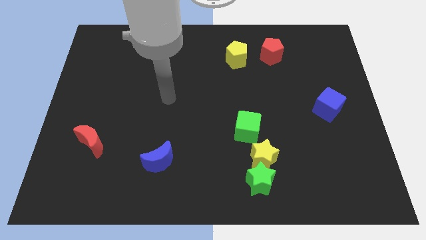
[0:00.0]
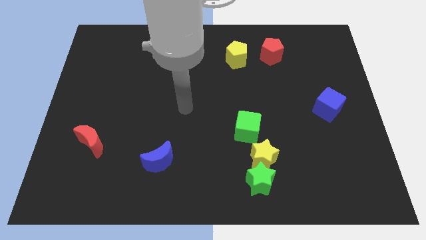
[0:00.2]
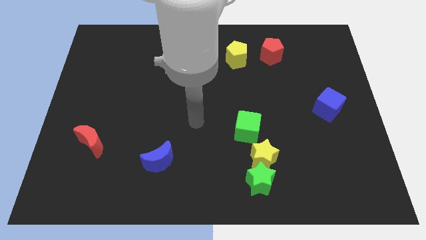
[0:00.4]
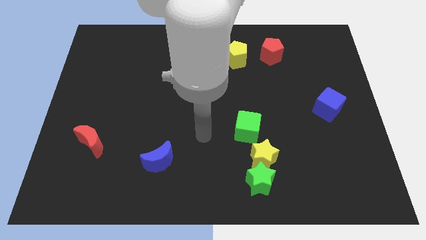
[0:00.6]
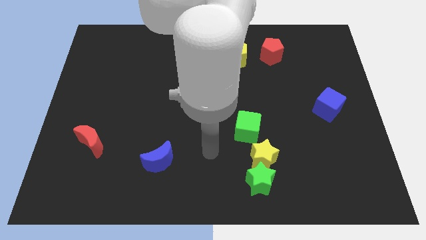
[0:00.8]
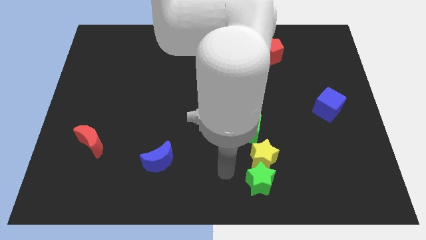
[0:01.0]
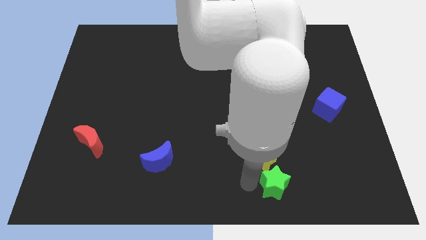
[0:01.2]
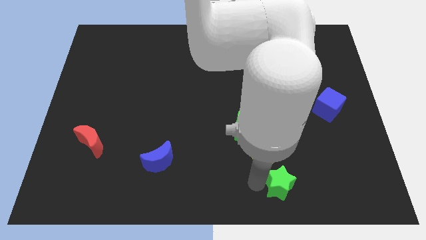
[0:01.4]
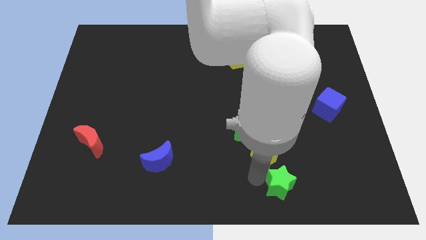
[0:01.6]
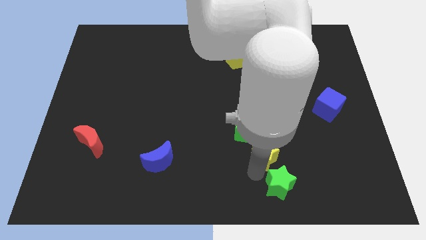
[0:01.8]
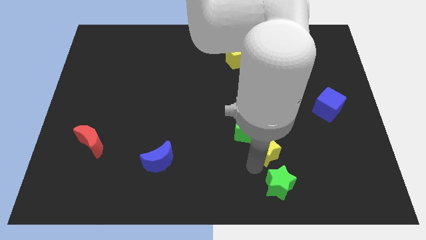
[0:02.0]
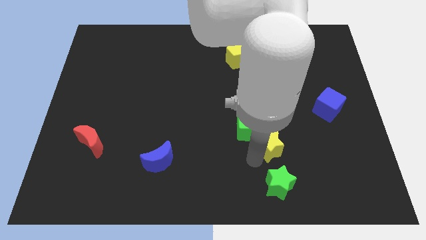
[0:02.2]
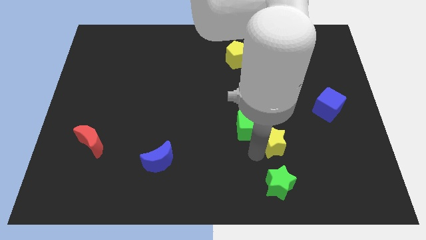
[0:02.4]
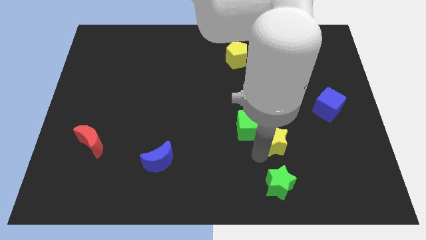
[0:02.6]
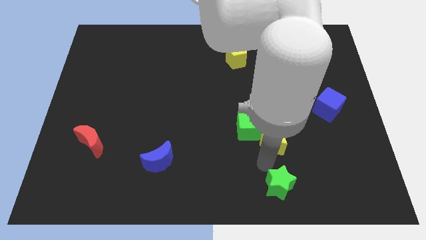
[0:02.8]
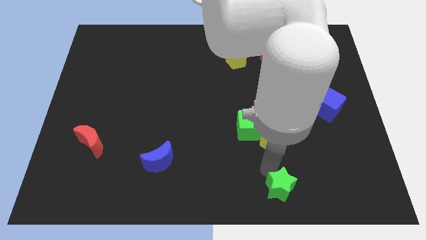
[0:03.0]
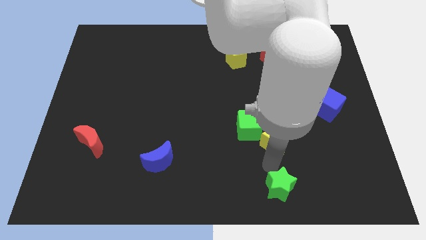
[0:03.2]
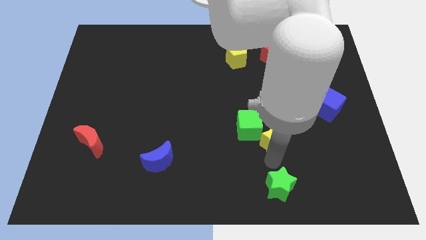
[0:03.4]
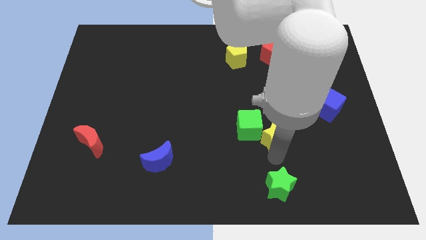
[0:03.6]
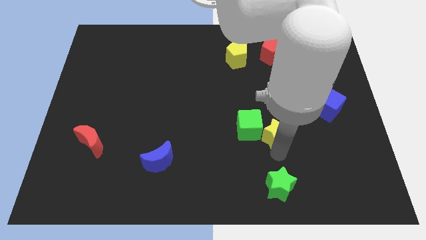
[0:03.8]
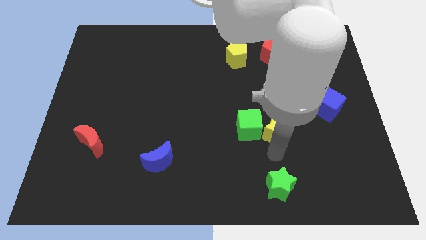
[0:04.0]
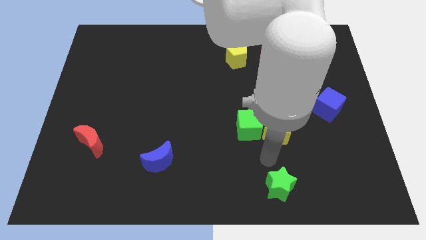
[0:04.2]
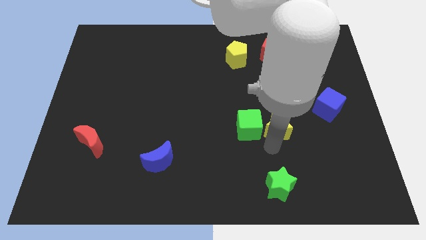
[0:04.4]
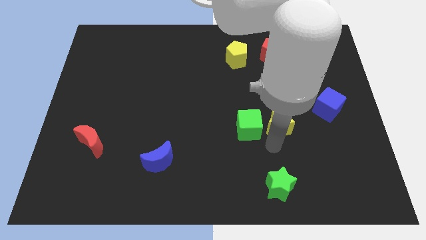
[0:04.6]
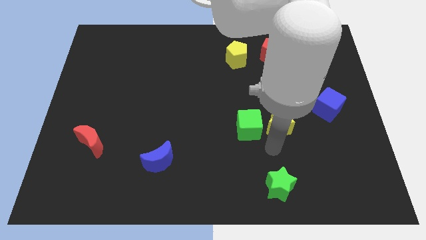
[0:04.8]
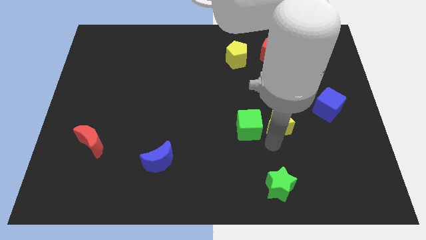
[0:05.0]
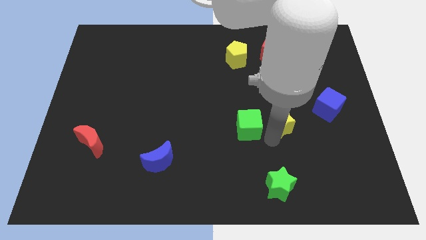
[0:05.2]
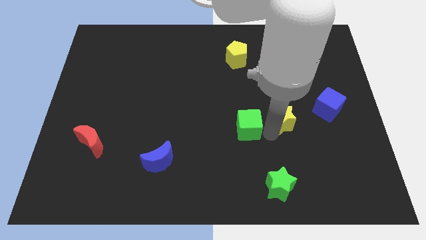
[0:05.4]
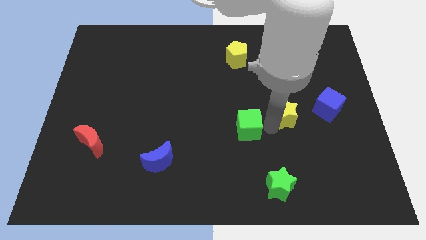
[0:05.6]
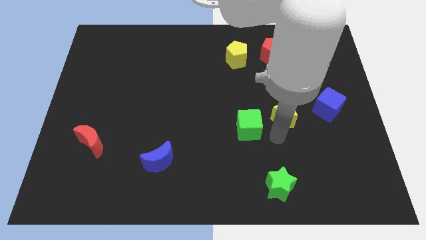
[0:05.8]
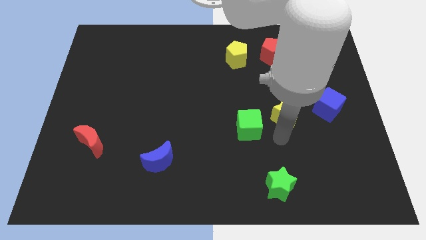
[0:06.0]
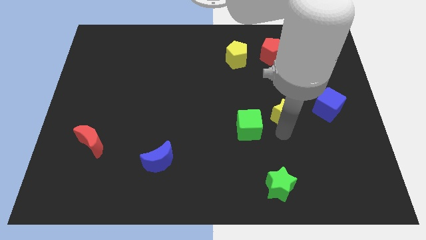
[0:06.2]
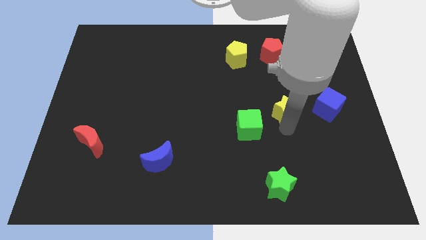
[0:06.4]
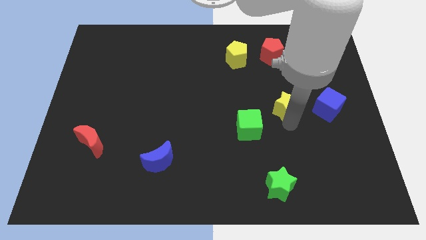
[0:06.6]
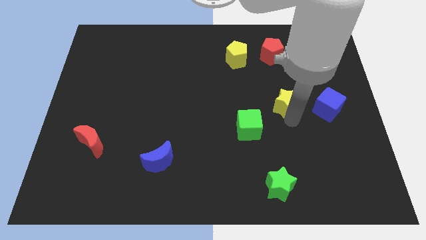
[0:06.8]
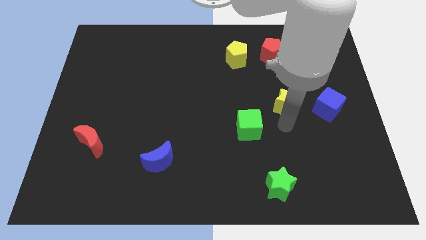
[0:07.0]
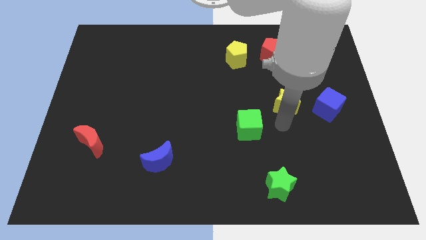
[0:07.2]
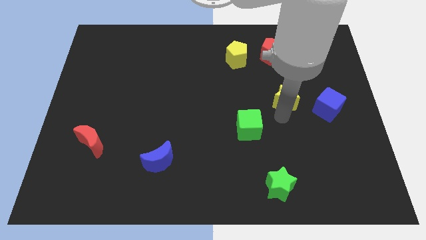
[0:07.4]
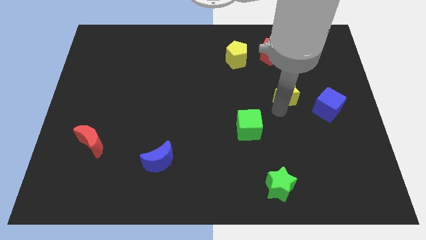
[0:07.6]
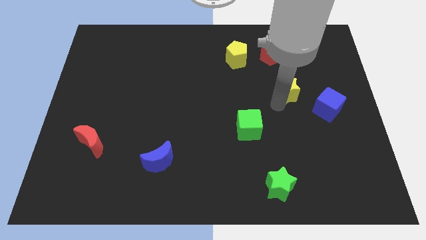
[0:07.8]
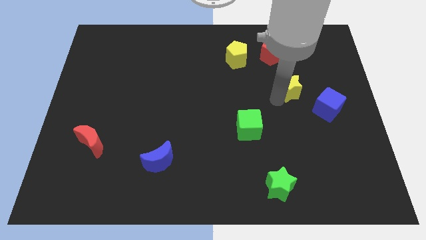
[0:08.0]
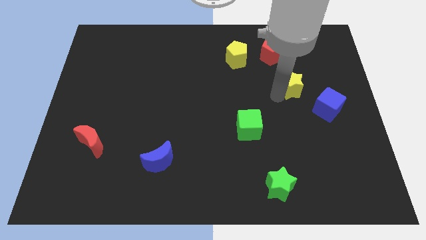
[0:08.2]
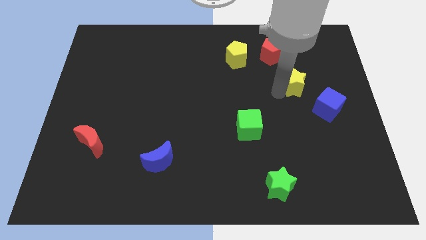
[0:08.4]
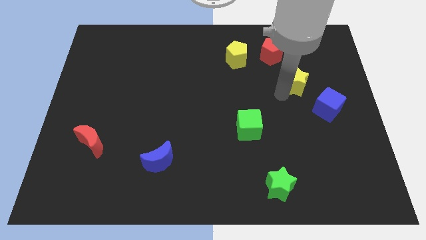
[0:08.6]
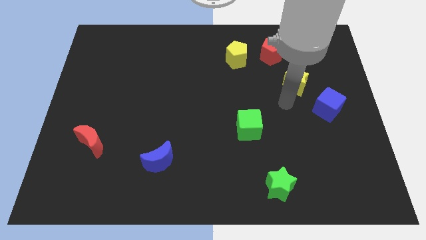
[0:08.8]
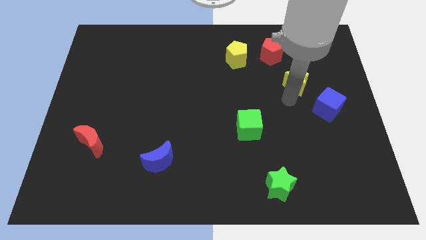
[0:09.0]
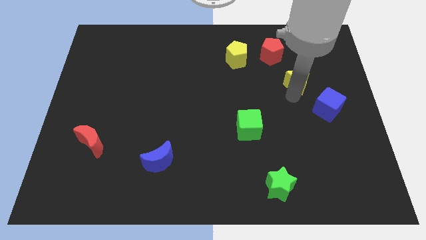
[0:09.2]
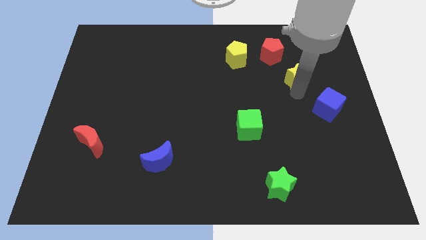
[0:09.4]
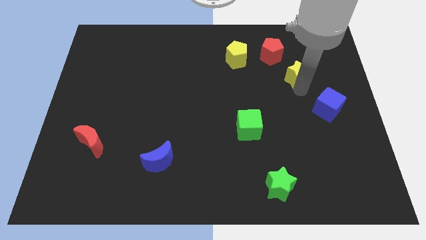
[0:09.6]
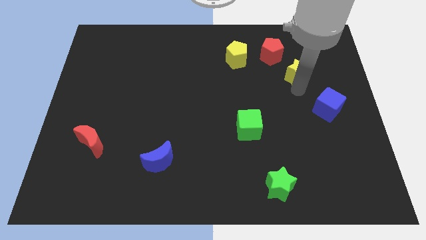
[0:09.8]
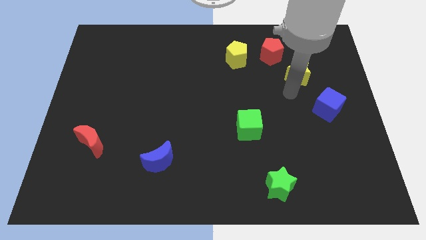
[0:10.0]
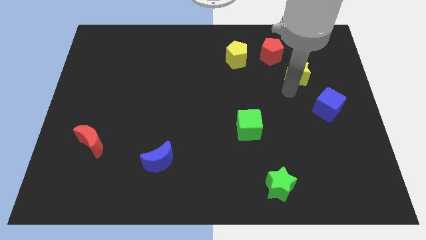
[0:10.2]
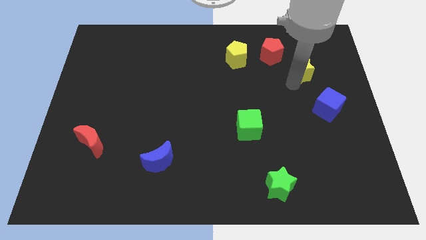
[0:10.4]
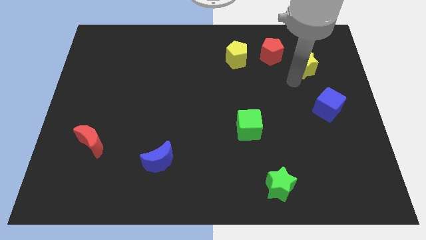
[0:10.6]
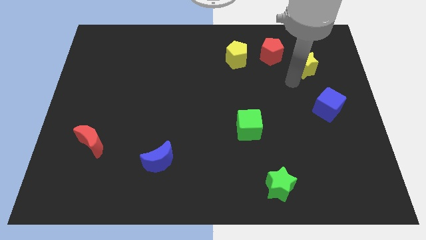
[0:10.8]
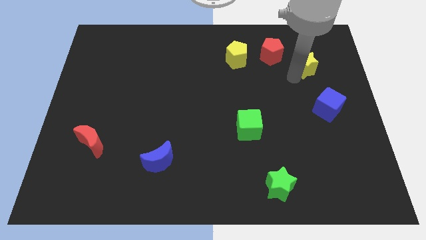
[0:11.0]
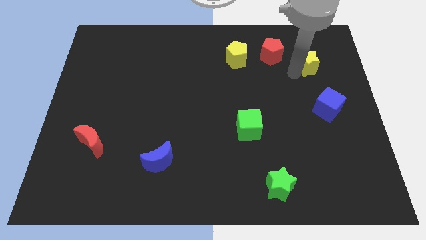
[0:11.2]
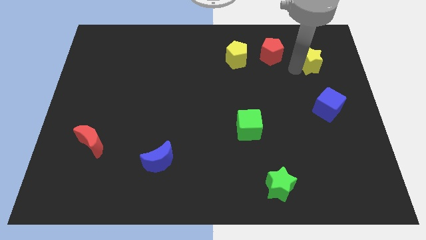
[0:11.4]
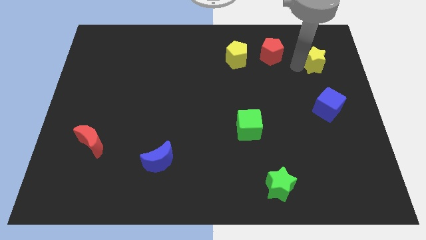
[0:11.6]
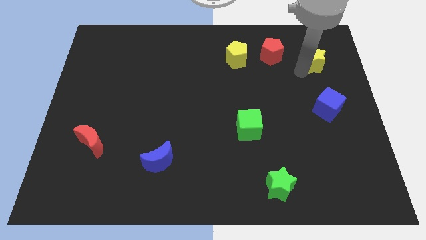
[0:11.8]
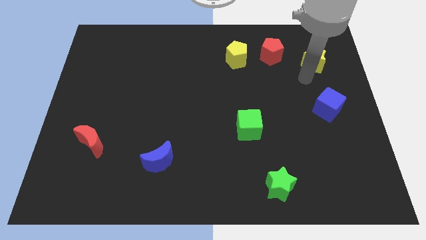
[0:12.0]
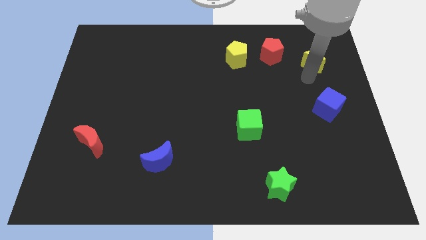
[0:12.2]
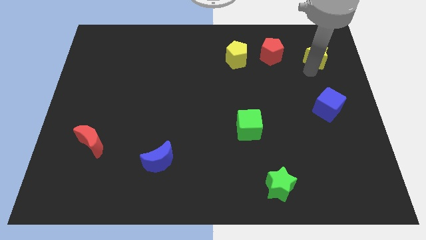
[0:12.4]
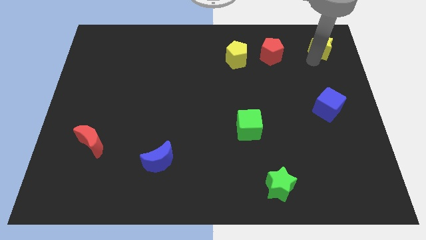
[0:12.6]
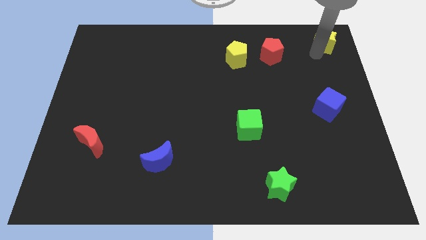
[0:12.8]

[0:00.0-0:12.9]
move the yellow star to the top right corner

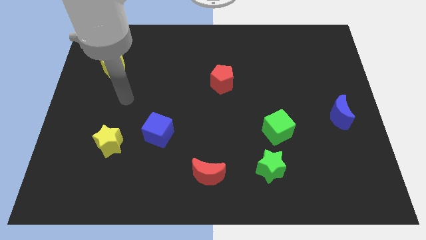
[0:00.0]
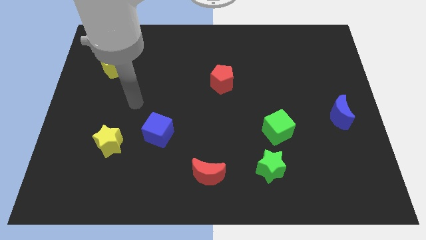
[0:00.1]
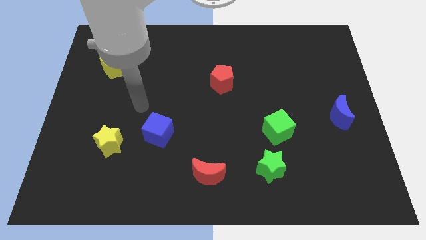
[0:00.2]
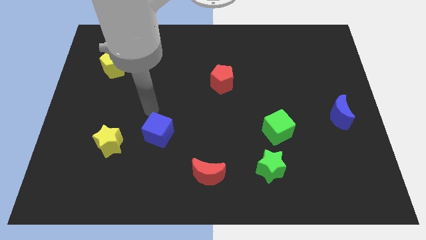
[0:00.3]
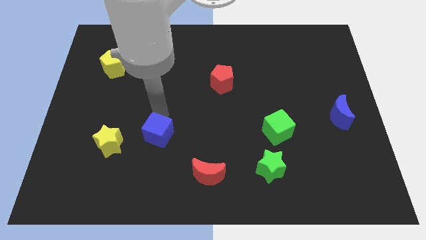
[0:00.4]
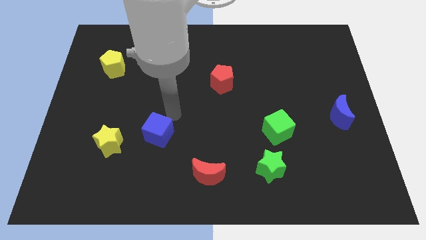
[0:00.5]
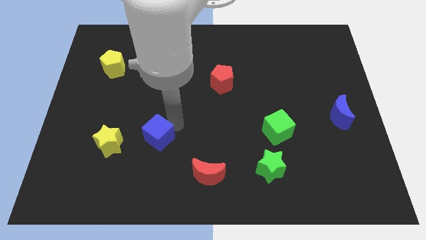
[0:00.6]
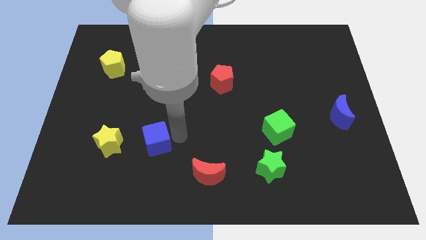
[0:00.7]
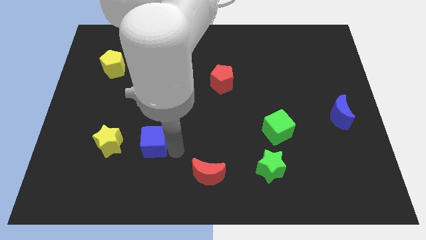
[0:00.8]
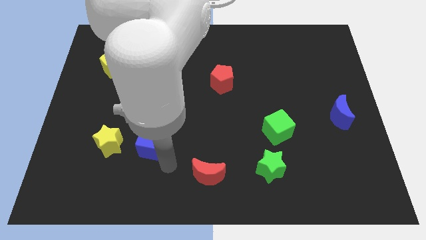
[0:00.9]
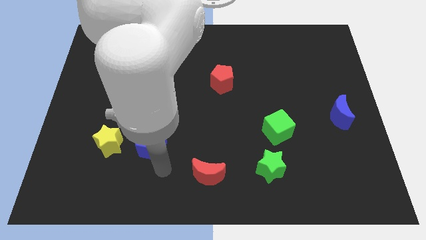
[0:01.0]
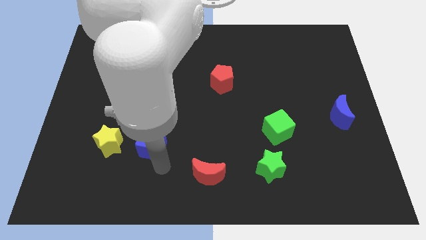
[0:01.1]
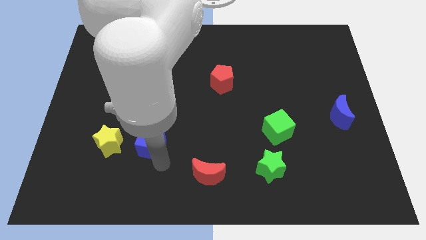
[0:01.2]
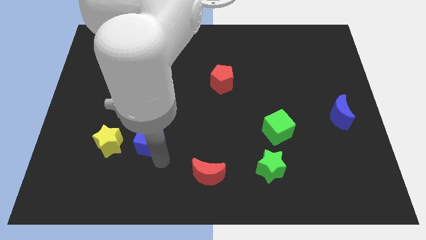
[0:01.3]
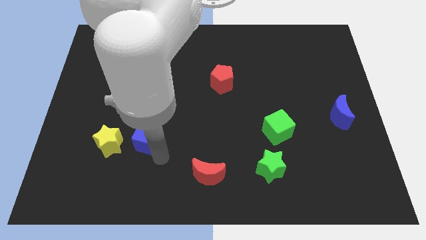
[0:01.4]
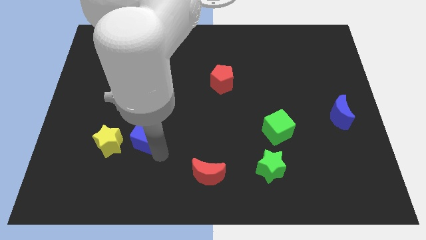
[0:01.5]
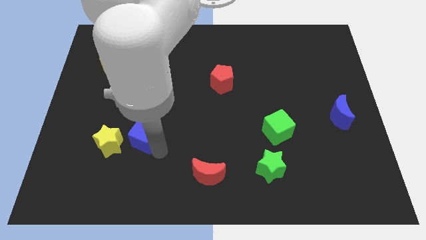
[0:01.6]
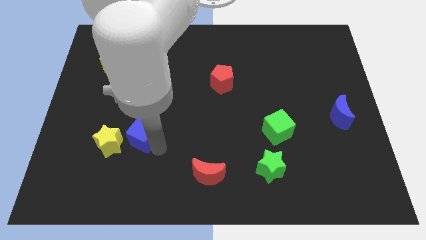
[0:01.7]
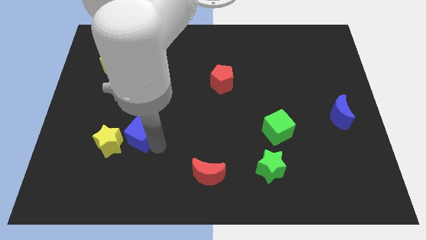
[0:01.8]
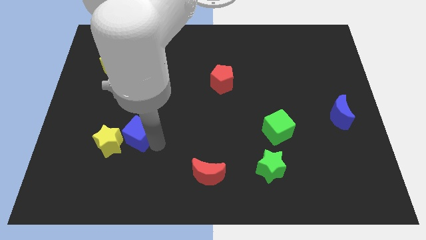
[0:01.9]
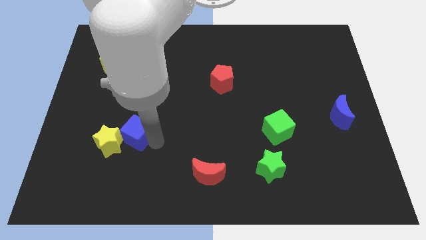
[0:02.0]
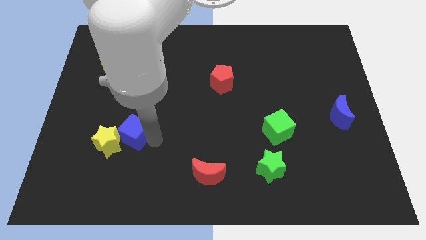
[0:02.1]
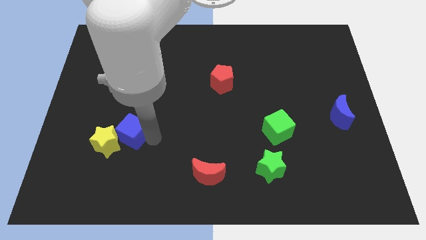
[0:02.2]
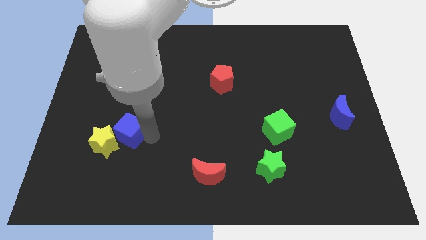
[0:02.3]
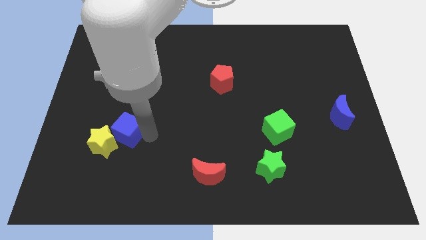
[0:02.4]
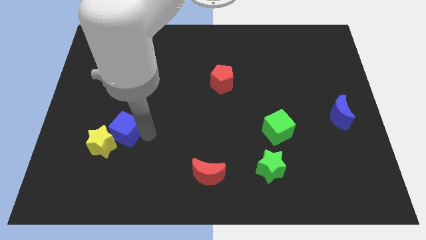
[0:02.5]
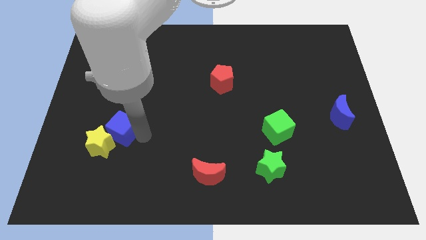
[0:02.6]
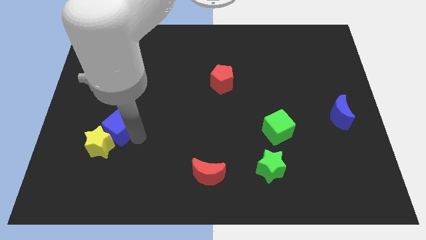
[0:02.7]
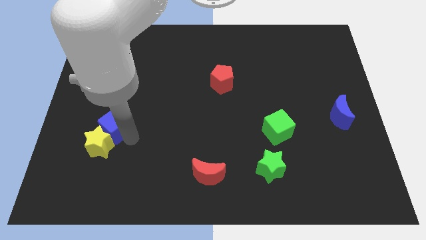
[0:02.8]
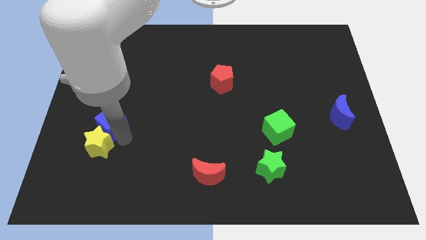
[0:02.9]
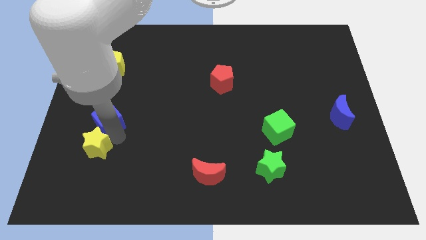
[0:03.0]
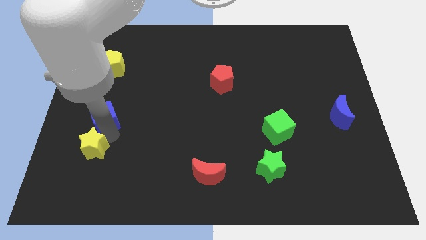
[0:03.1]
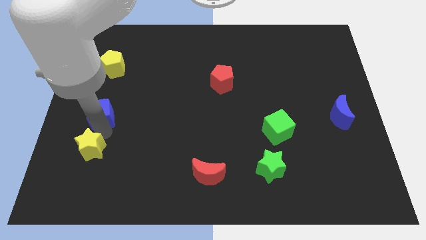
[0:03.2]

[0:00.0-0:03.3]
put the blue cube to the left side of the board
